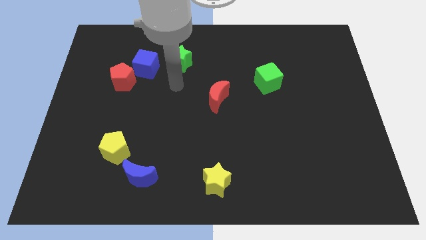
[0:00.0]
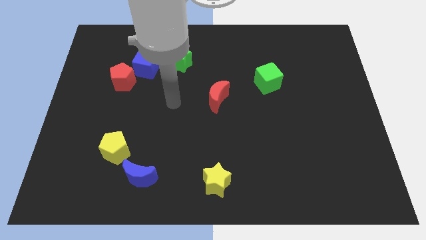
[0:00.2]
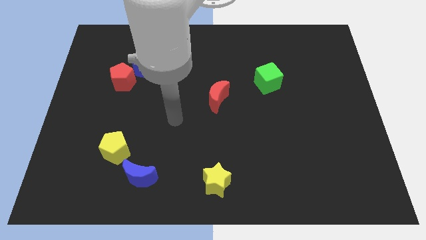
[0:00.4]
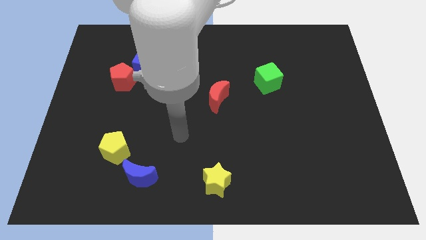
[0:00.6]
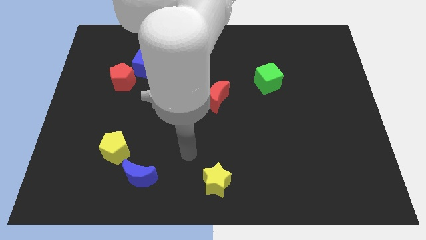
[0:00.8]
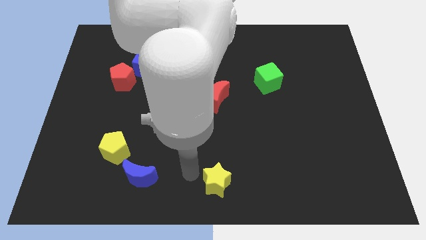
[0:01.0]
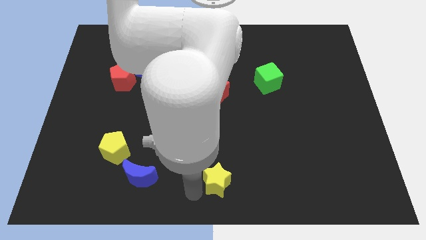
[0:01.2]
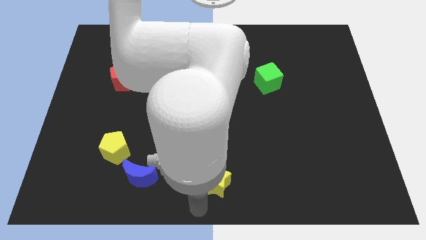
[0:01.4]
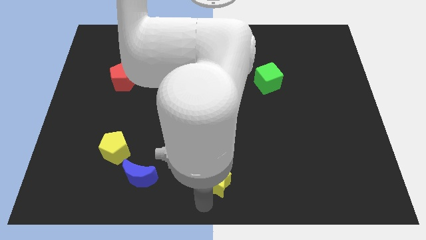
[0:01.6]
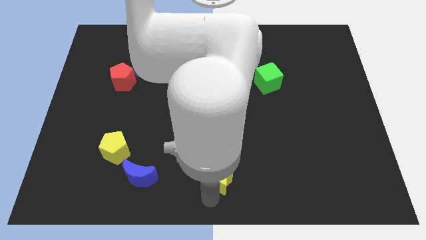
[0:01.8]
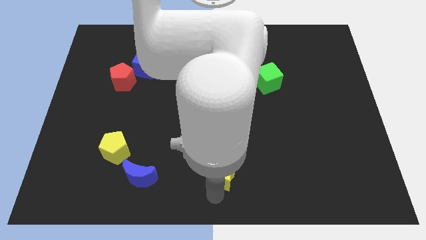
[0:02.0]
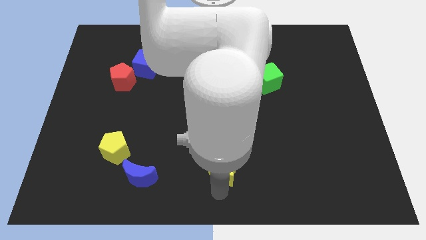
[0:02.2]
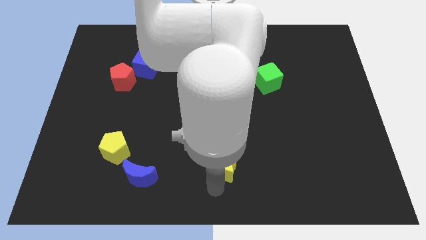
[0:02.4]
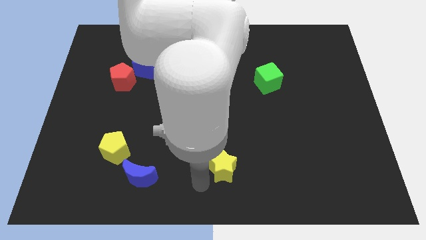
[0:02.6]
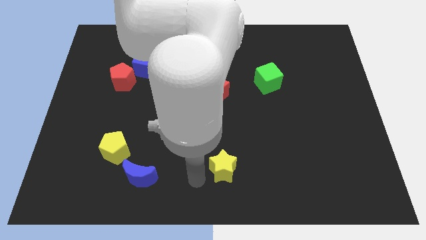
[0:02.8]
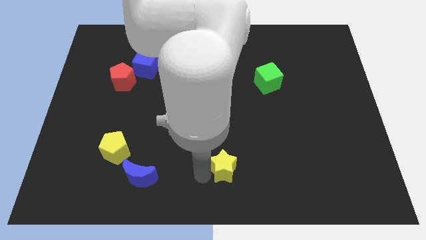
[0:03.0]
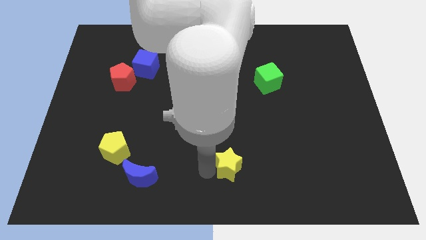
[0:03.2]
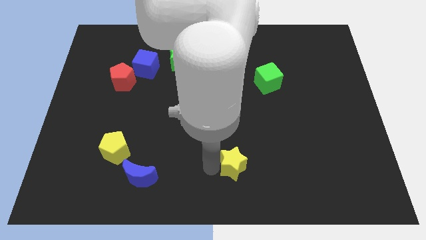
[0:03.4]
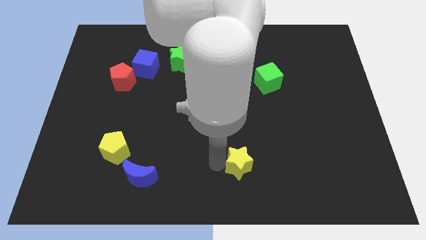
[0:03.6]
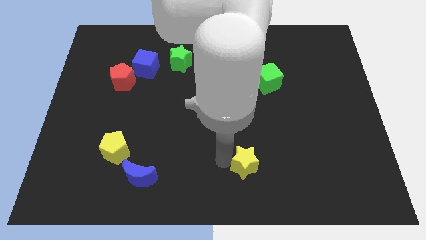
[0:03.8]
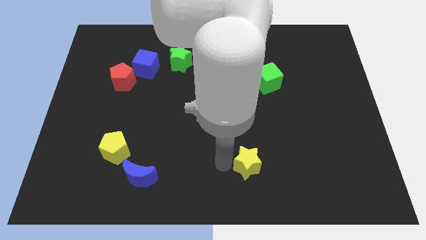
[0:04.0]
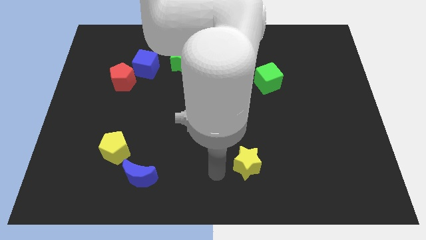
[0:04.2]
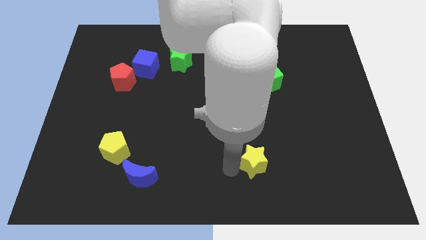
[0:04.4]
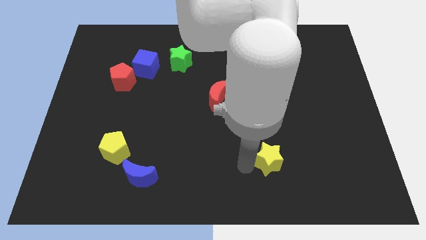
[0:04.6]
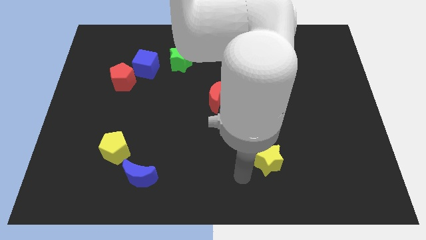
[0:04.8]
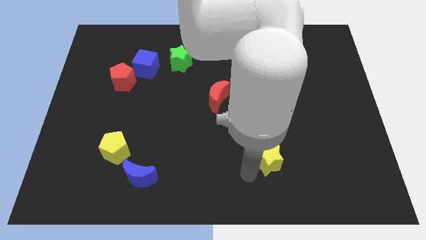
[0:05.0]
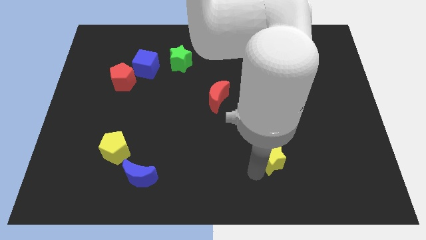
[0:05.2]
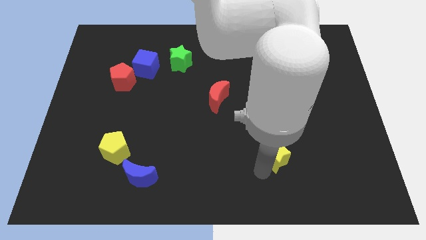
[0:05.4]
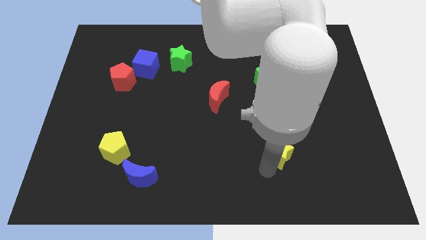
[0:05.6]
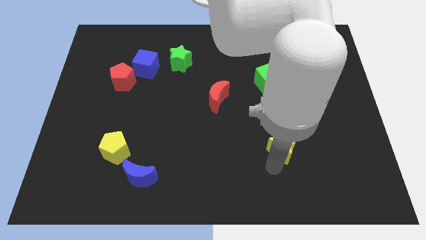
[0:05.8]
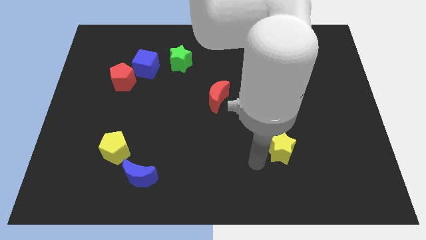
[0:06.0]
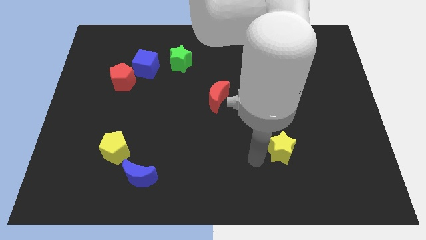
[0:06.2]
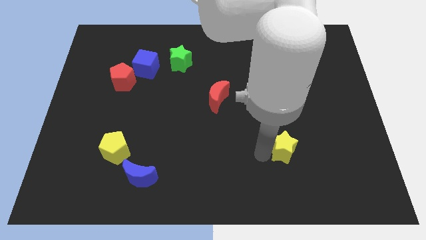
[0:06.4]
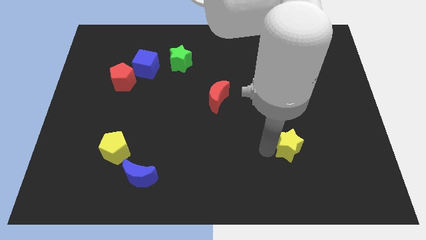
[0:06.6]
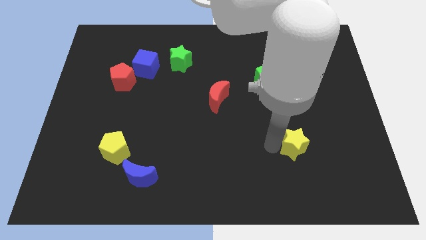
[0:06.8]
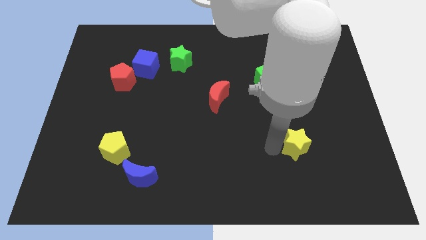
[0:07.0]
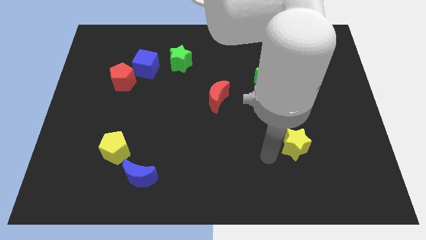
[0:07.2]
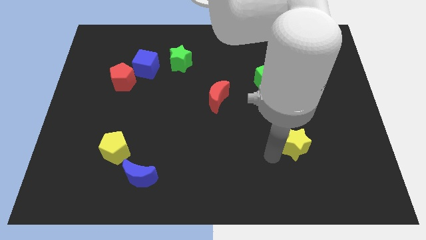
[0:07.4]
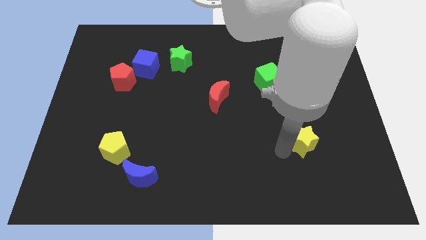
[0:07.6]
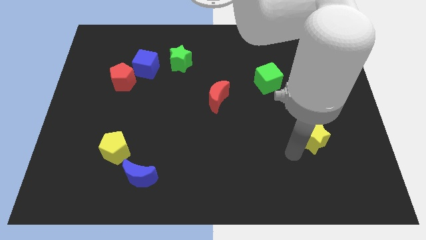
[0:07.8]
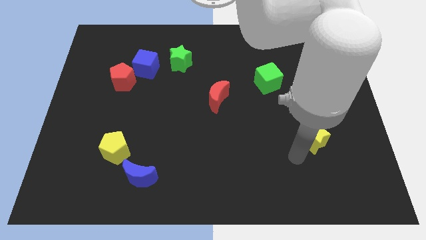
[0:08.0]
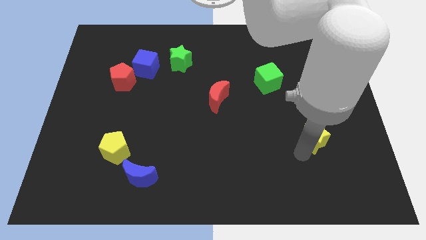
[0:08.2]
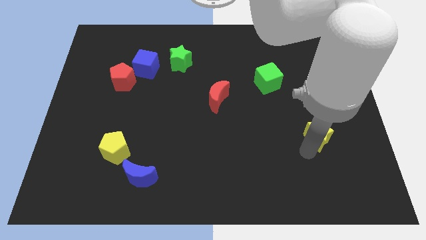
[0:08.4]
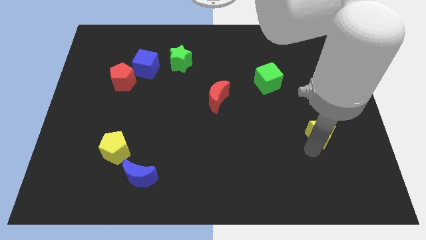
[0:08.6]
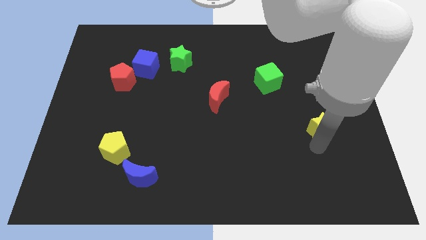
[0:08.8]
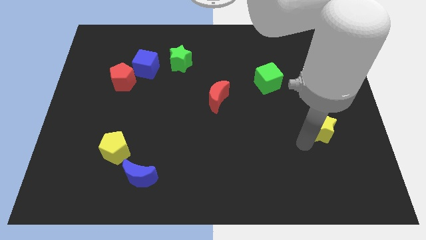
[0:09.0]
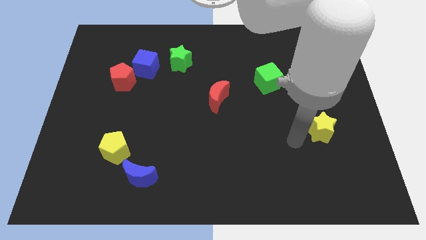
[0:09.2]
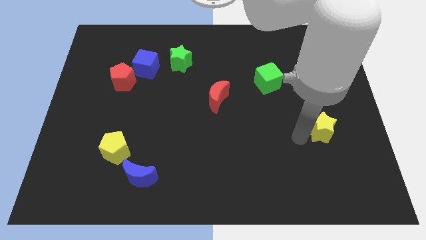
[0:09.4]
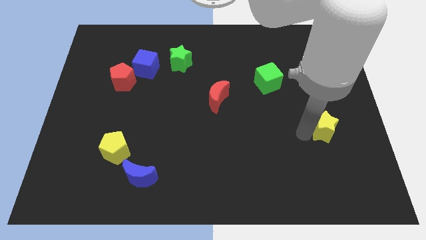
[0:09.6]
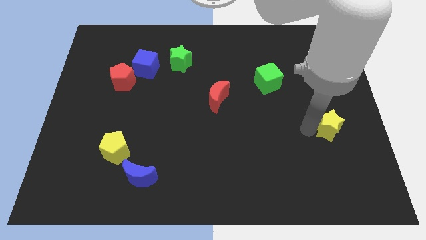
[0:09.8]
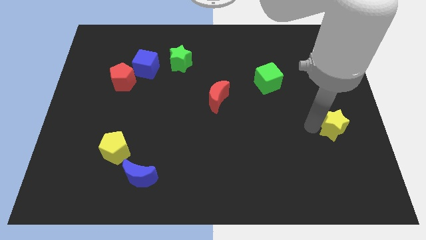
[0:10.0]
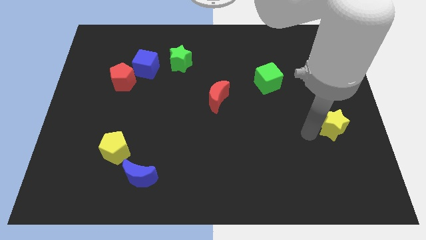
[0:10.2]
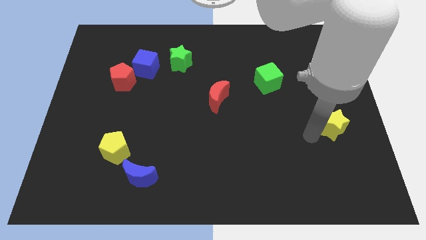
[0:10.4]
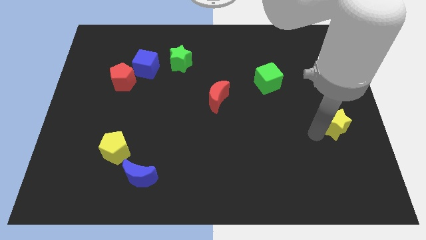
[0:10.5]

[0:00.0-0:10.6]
slide the yellow star to the right side

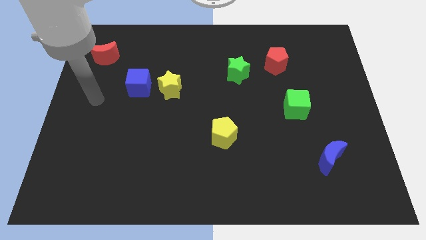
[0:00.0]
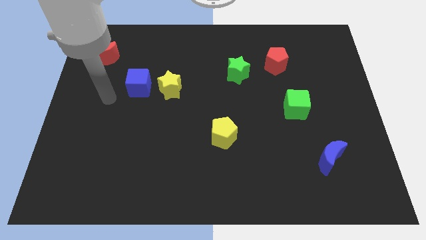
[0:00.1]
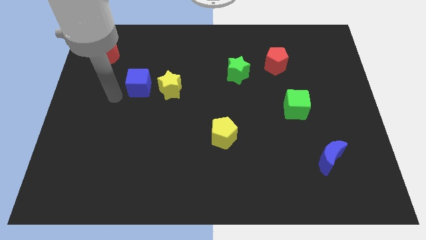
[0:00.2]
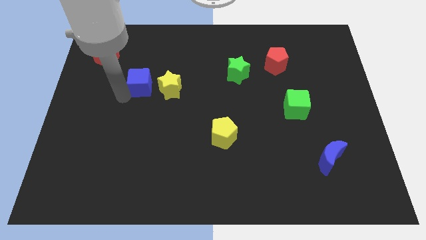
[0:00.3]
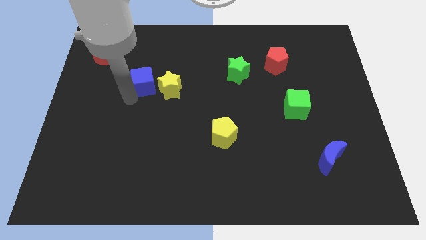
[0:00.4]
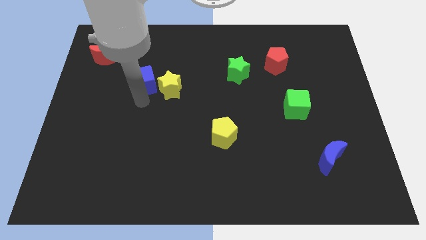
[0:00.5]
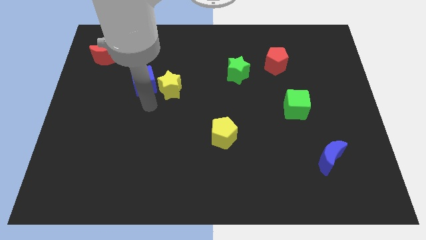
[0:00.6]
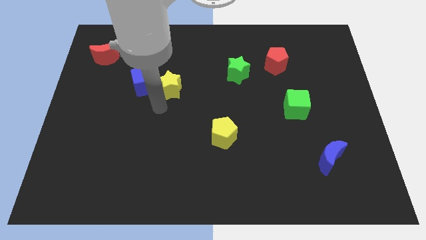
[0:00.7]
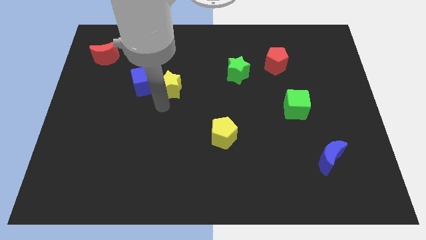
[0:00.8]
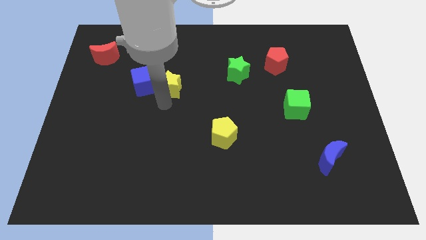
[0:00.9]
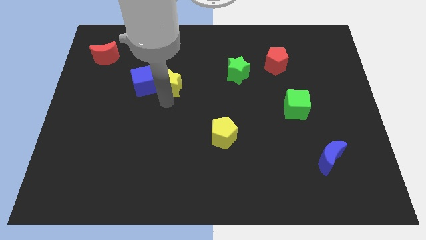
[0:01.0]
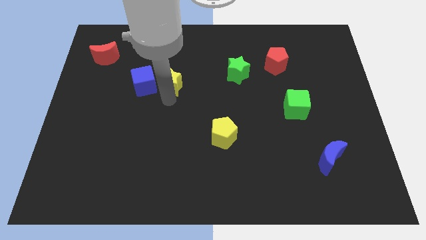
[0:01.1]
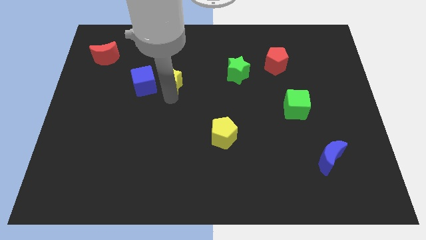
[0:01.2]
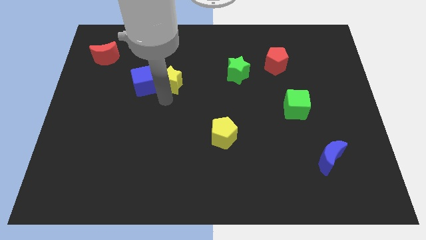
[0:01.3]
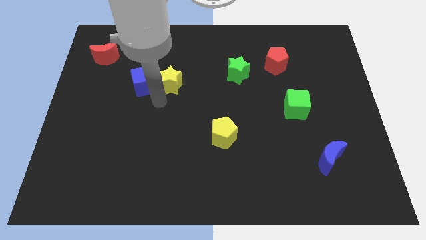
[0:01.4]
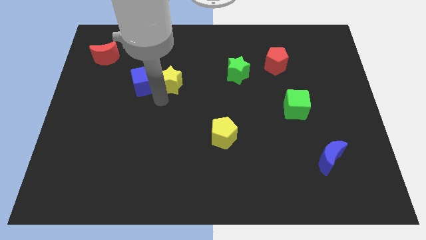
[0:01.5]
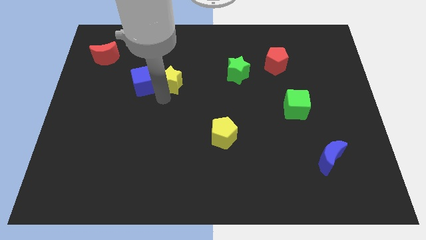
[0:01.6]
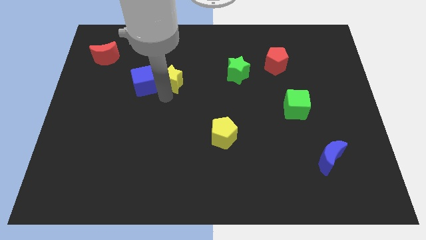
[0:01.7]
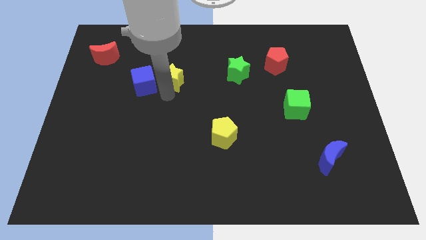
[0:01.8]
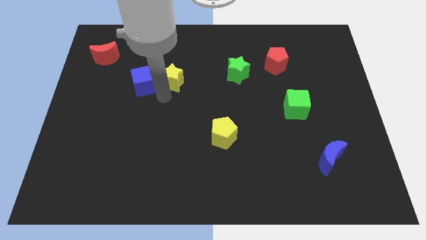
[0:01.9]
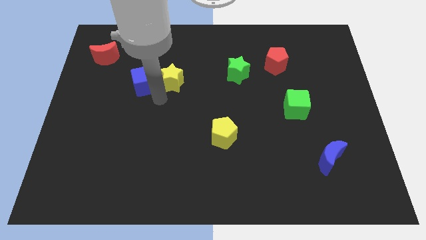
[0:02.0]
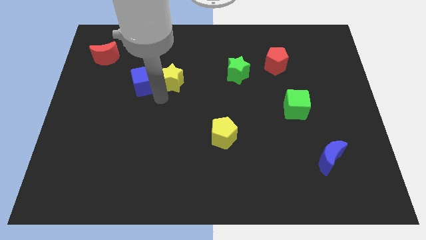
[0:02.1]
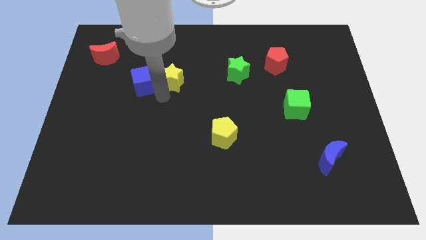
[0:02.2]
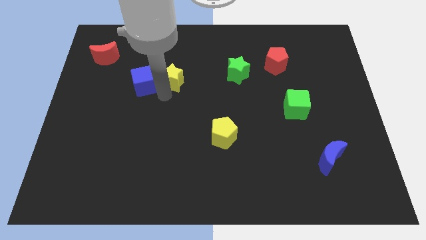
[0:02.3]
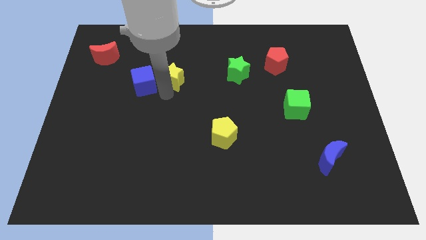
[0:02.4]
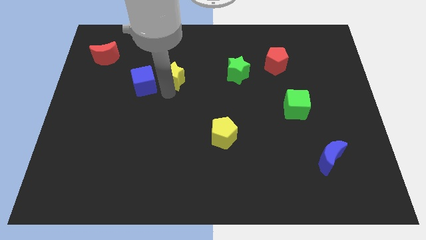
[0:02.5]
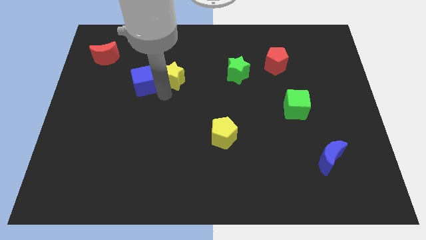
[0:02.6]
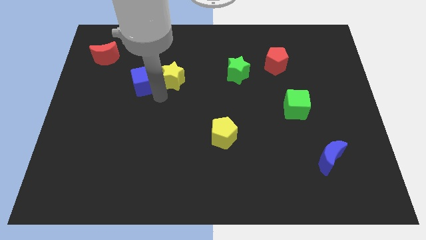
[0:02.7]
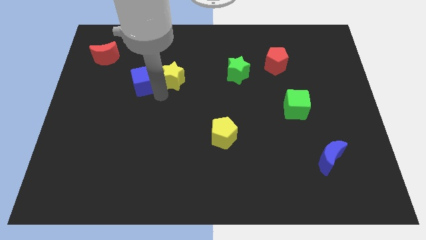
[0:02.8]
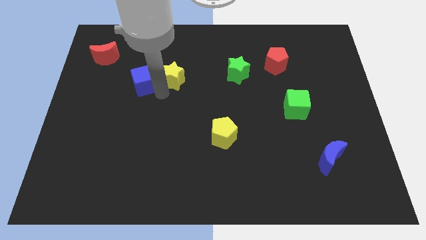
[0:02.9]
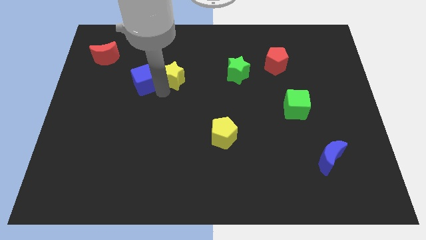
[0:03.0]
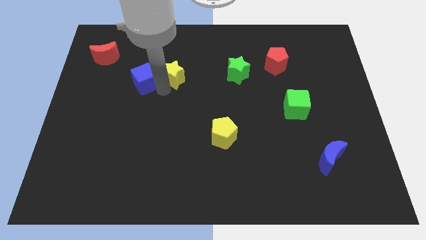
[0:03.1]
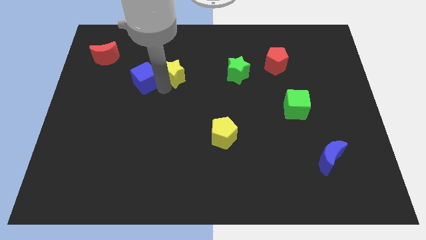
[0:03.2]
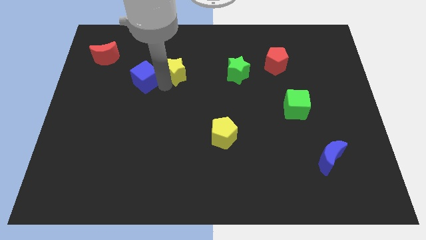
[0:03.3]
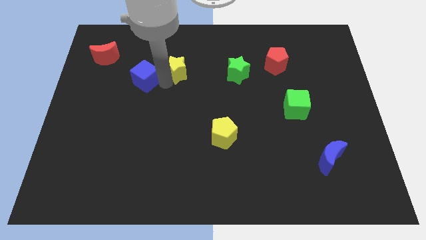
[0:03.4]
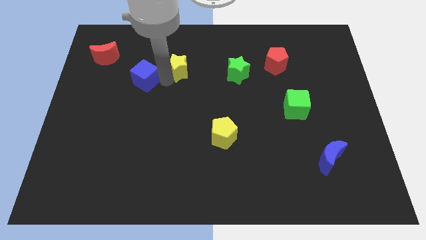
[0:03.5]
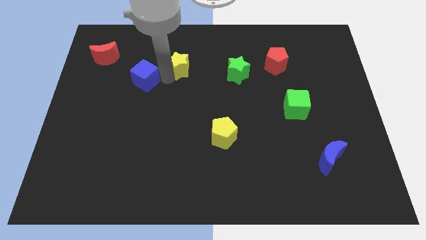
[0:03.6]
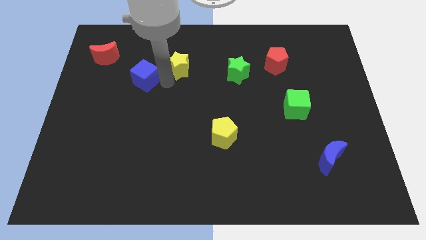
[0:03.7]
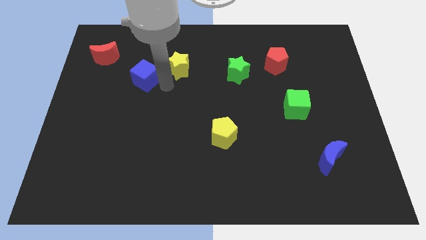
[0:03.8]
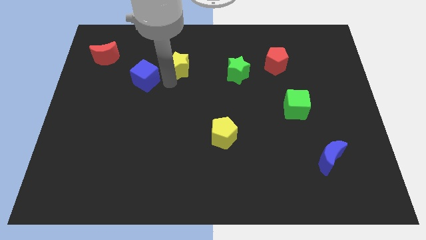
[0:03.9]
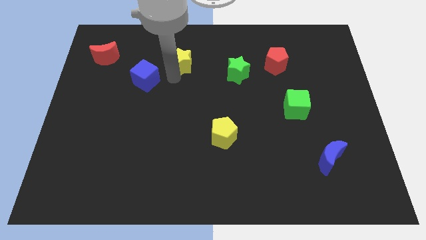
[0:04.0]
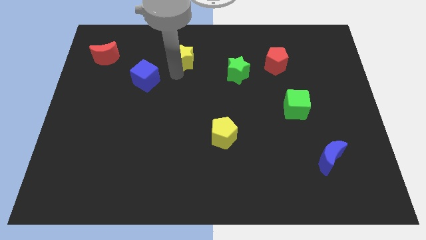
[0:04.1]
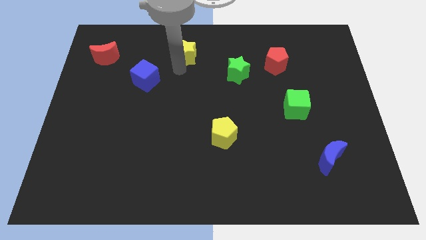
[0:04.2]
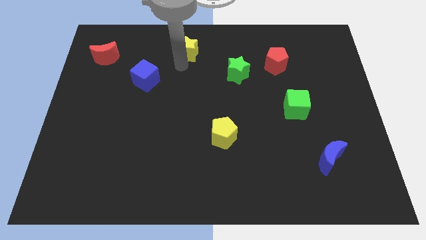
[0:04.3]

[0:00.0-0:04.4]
slide the yellow star to the towards your base
